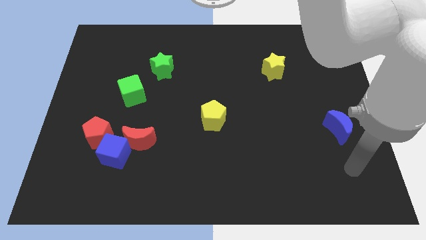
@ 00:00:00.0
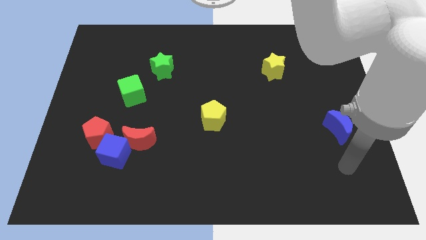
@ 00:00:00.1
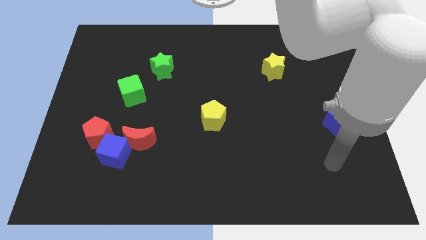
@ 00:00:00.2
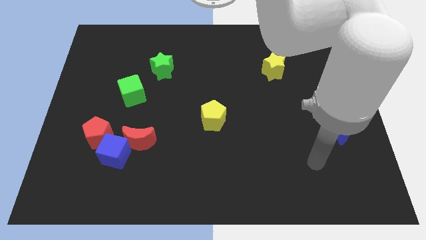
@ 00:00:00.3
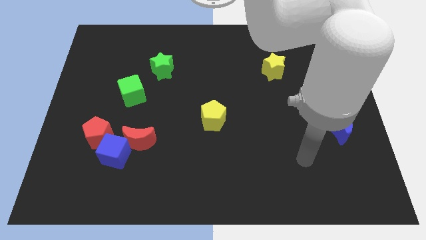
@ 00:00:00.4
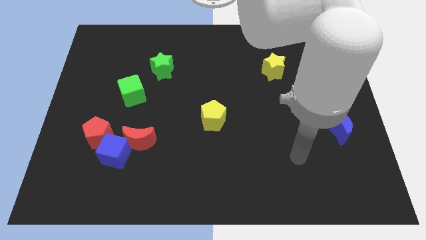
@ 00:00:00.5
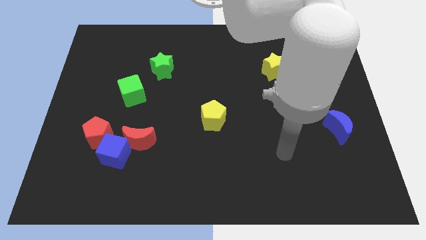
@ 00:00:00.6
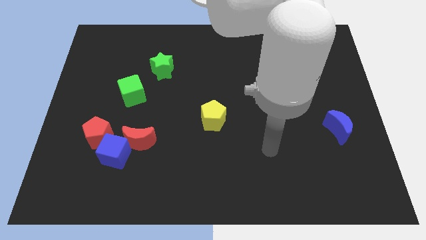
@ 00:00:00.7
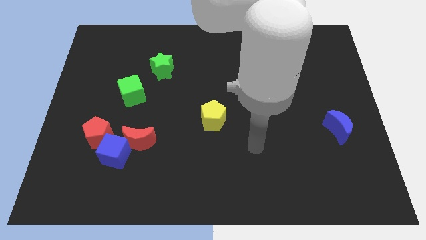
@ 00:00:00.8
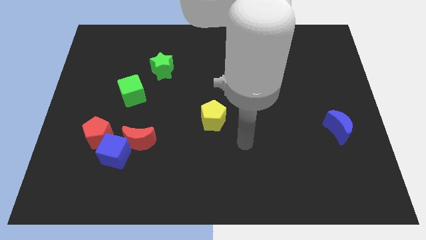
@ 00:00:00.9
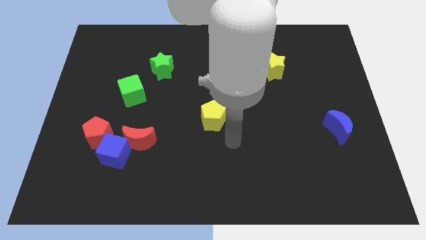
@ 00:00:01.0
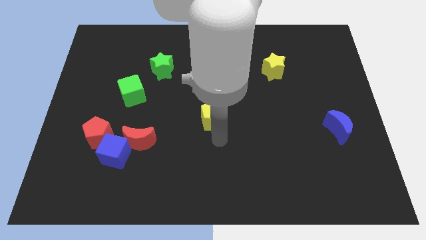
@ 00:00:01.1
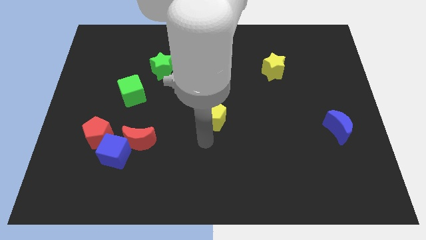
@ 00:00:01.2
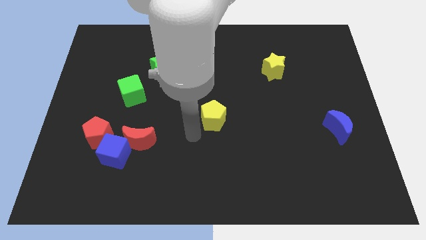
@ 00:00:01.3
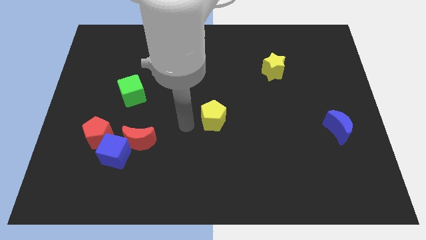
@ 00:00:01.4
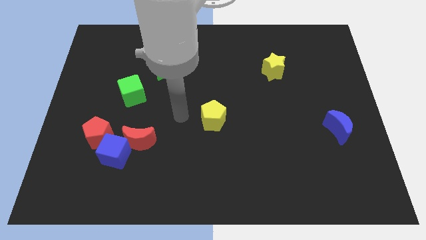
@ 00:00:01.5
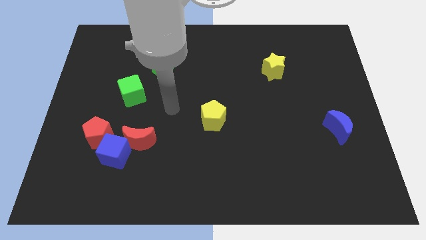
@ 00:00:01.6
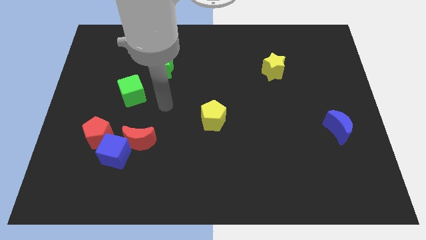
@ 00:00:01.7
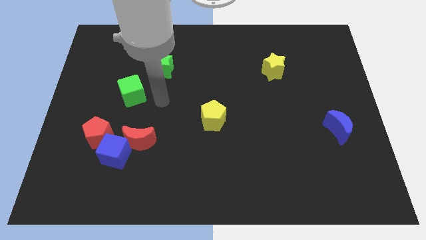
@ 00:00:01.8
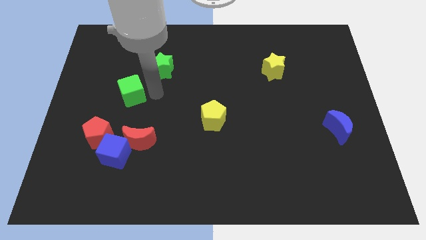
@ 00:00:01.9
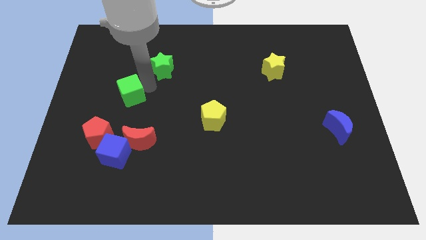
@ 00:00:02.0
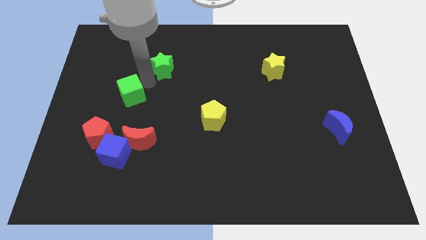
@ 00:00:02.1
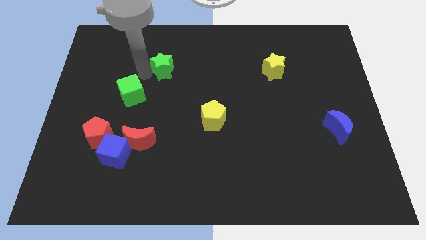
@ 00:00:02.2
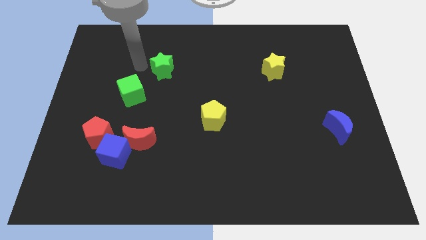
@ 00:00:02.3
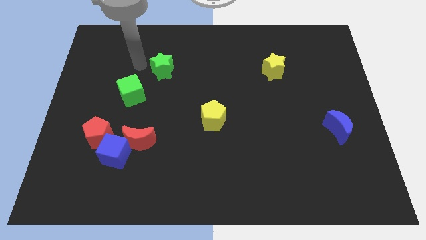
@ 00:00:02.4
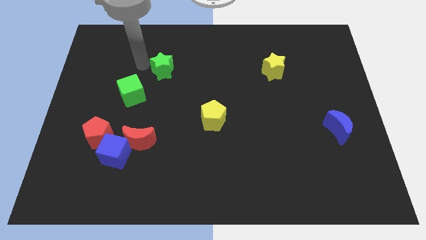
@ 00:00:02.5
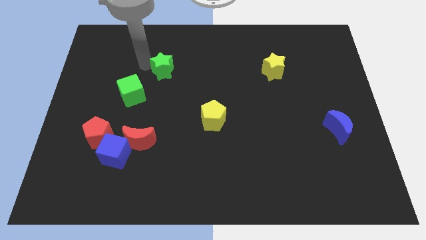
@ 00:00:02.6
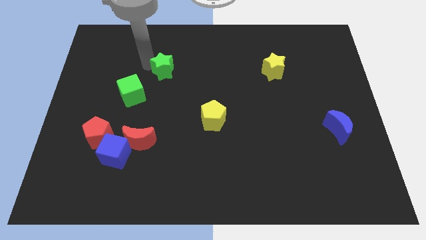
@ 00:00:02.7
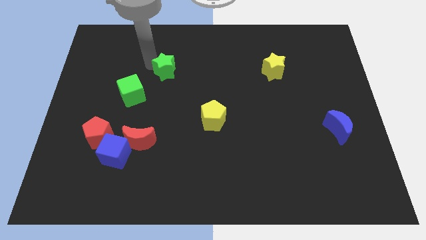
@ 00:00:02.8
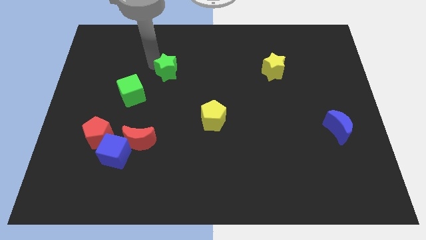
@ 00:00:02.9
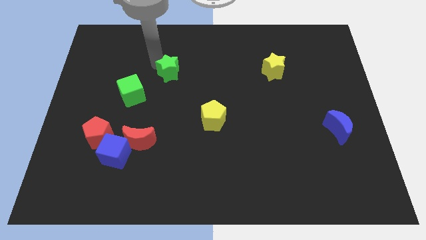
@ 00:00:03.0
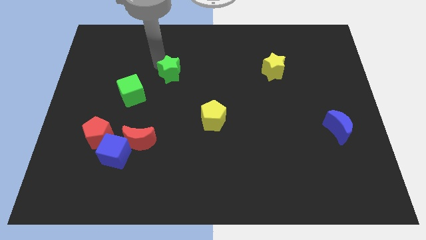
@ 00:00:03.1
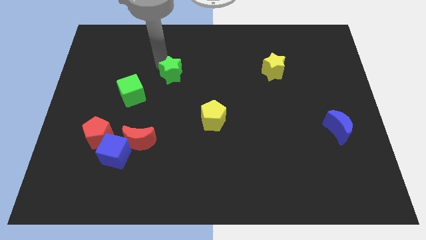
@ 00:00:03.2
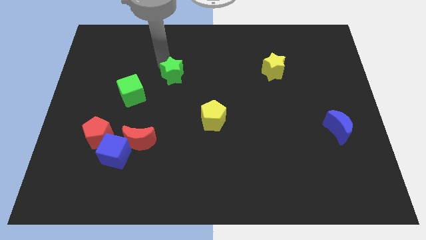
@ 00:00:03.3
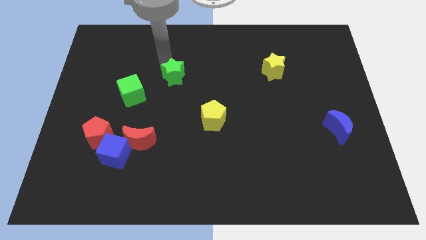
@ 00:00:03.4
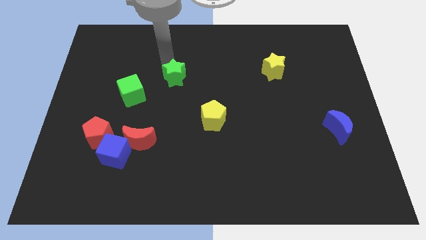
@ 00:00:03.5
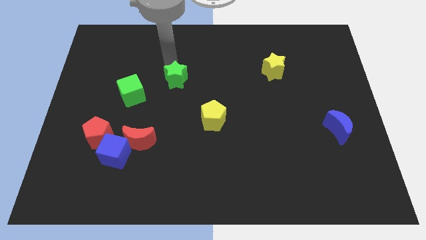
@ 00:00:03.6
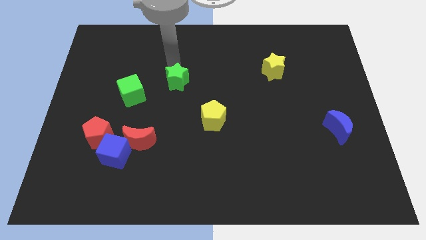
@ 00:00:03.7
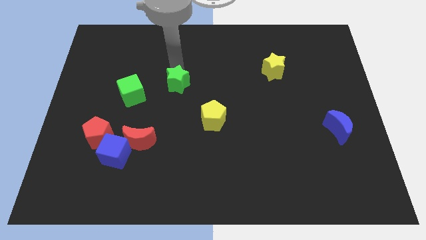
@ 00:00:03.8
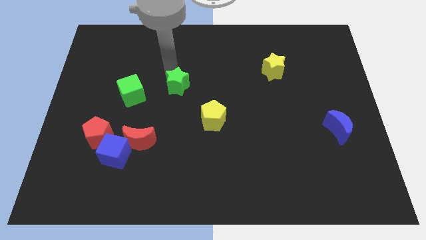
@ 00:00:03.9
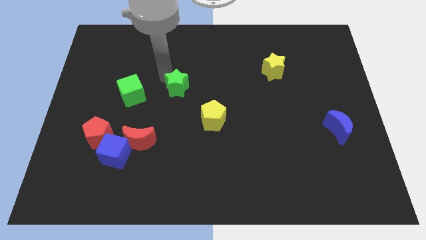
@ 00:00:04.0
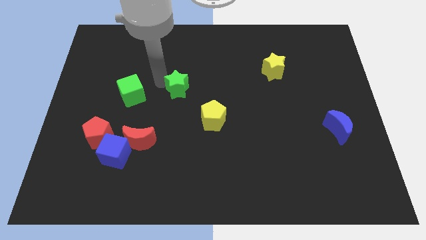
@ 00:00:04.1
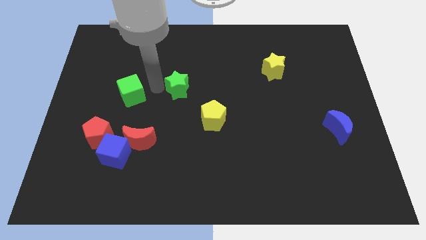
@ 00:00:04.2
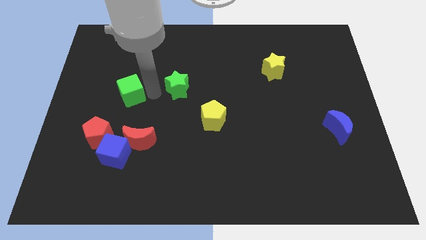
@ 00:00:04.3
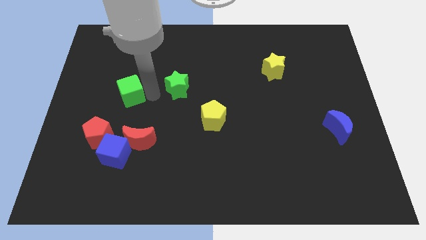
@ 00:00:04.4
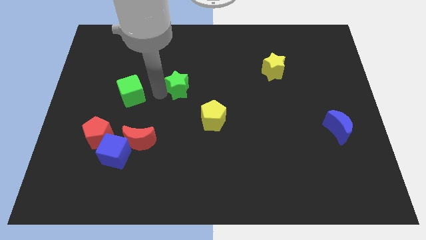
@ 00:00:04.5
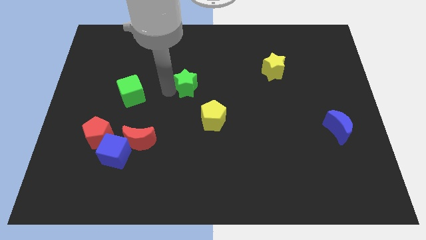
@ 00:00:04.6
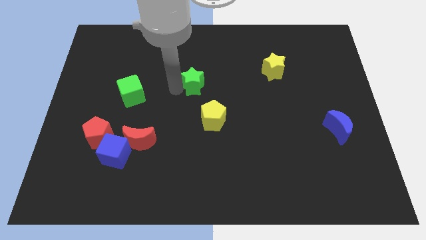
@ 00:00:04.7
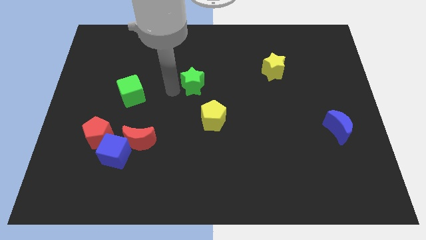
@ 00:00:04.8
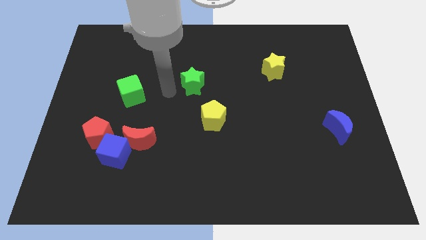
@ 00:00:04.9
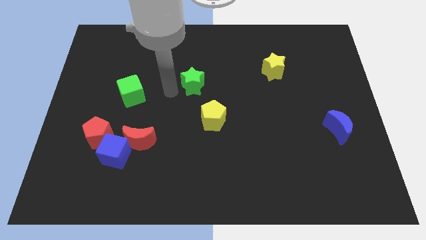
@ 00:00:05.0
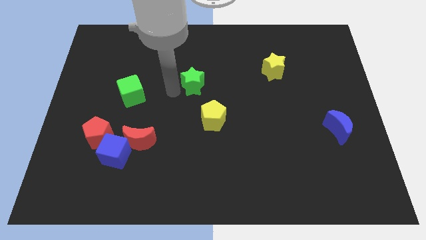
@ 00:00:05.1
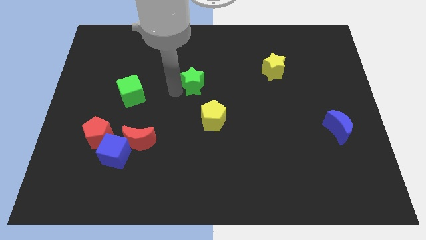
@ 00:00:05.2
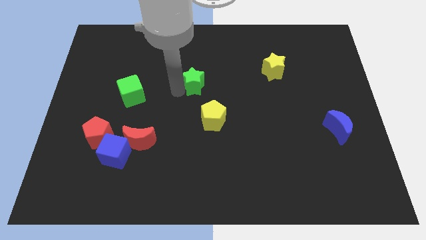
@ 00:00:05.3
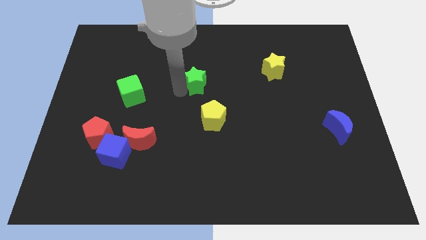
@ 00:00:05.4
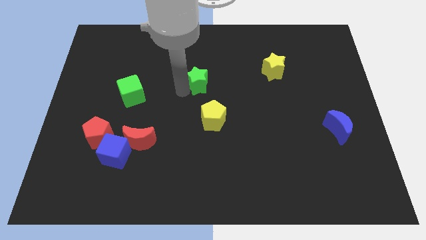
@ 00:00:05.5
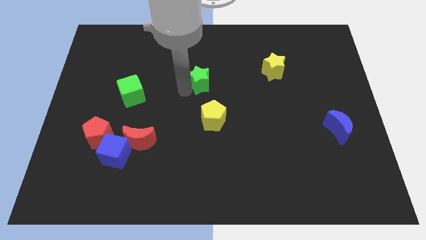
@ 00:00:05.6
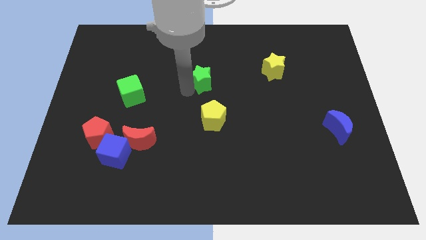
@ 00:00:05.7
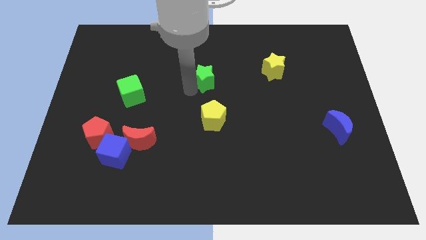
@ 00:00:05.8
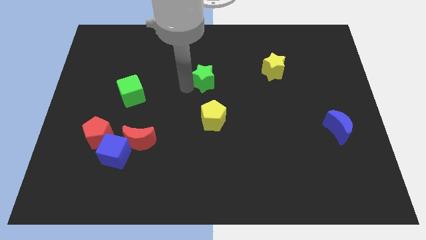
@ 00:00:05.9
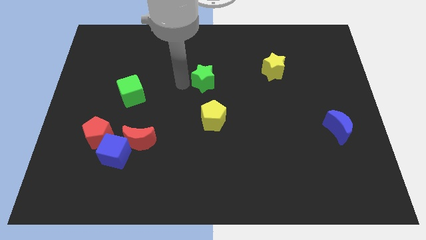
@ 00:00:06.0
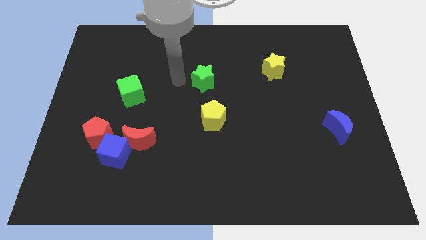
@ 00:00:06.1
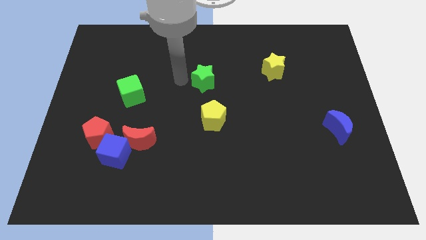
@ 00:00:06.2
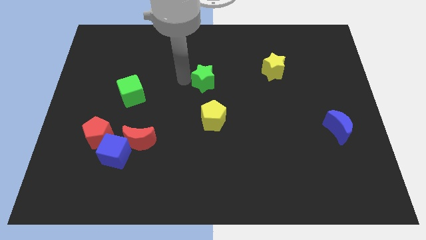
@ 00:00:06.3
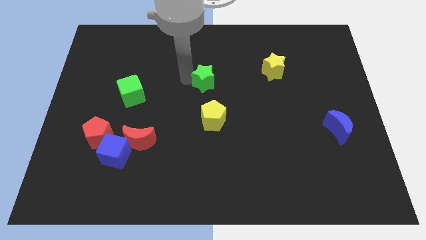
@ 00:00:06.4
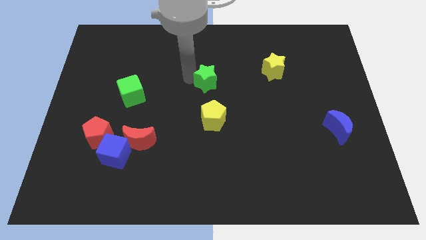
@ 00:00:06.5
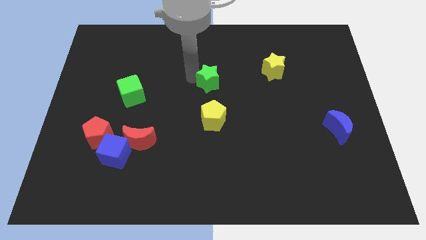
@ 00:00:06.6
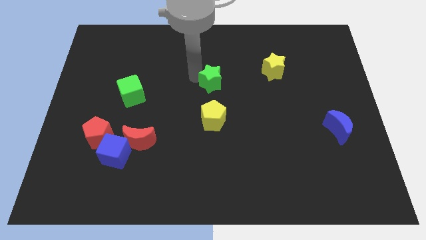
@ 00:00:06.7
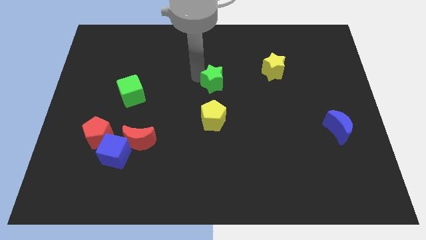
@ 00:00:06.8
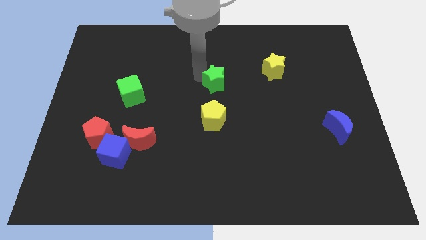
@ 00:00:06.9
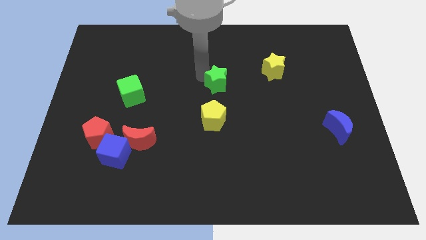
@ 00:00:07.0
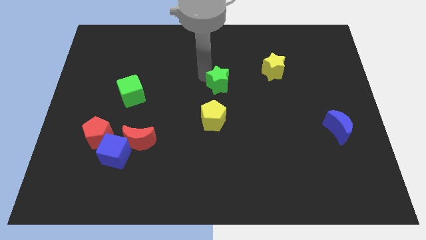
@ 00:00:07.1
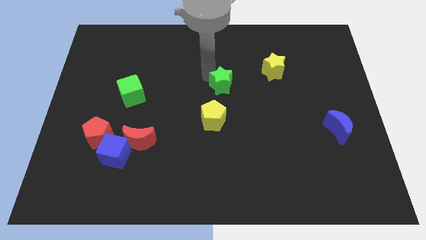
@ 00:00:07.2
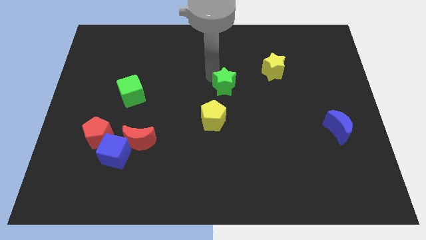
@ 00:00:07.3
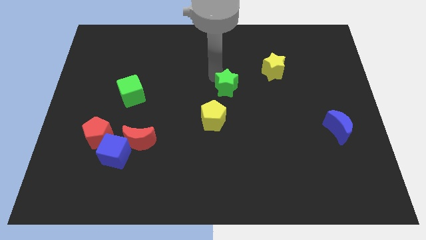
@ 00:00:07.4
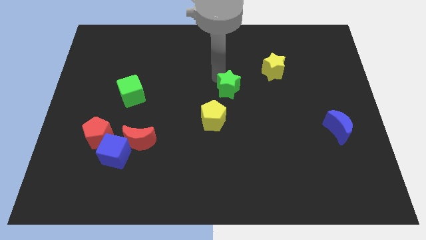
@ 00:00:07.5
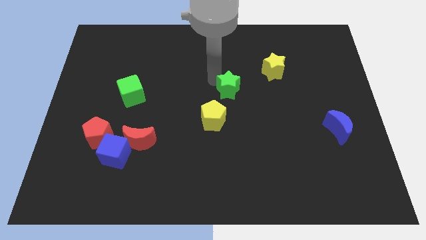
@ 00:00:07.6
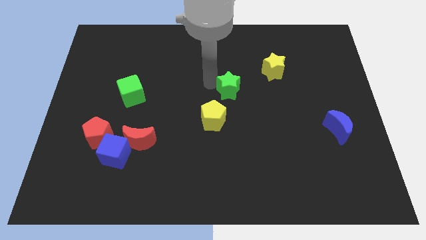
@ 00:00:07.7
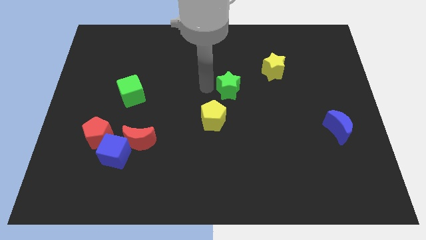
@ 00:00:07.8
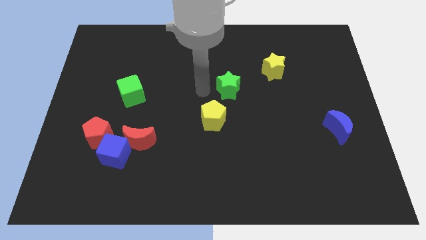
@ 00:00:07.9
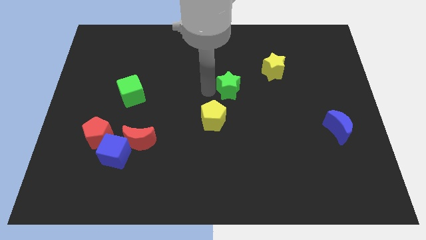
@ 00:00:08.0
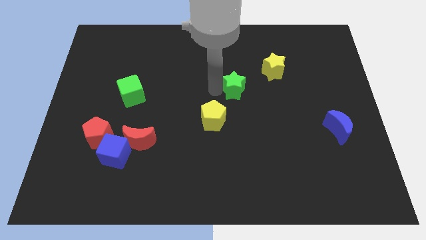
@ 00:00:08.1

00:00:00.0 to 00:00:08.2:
move the green star to the bottom left side of the yellow star
